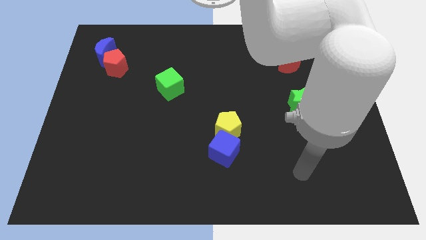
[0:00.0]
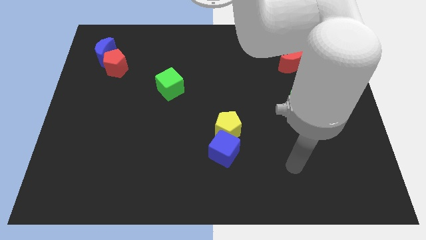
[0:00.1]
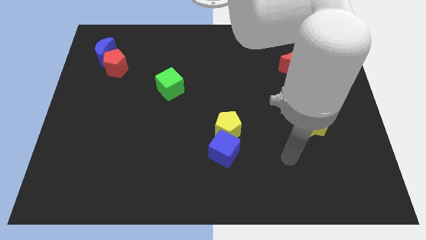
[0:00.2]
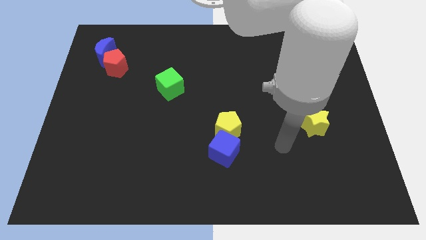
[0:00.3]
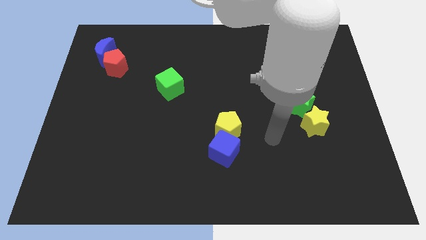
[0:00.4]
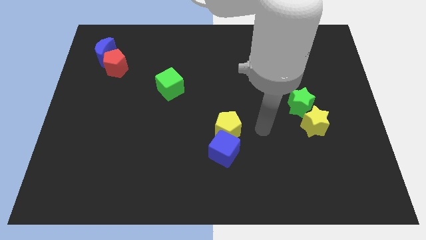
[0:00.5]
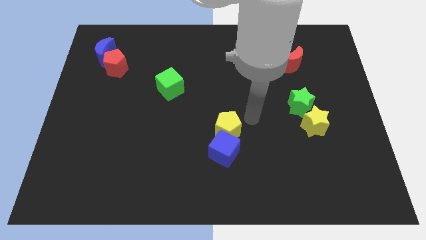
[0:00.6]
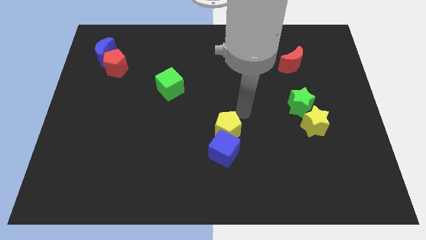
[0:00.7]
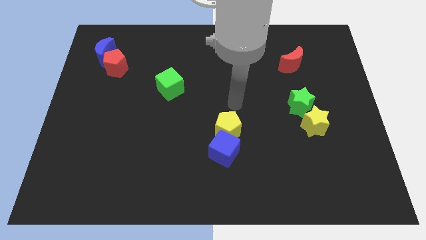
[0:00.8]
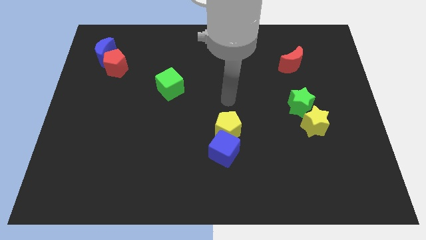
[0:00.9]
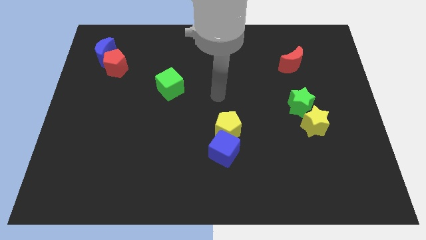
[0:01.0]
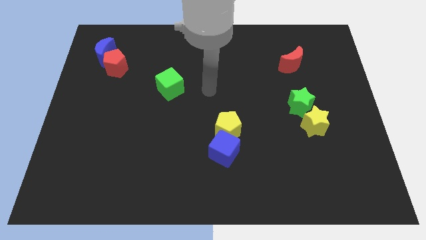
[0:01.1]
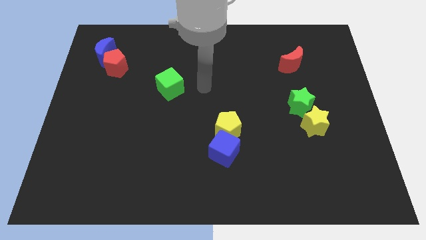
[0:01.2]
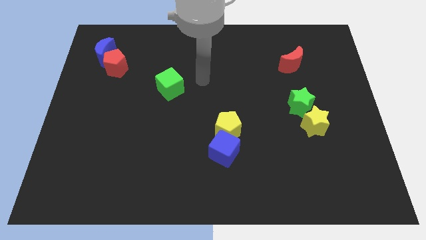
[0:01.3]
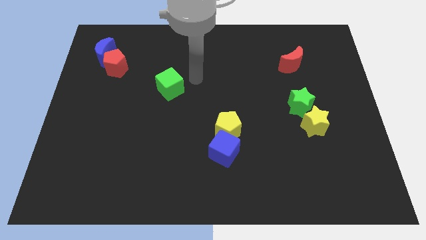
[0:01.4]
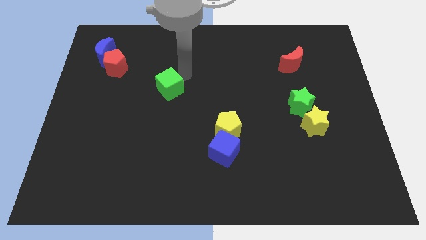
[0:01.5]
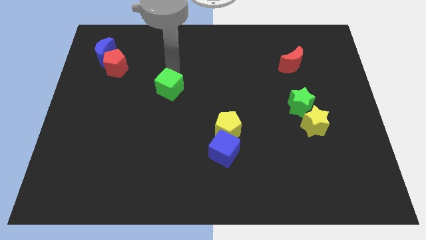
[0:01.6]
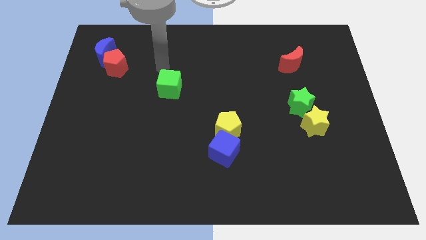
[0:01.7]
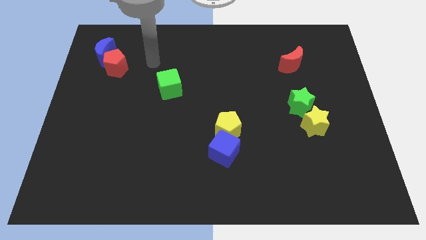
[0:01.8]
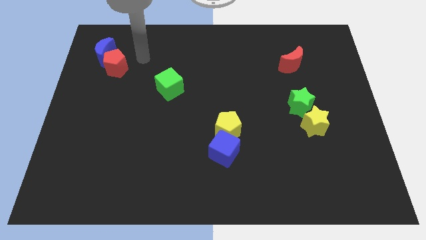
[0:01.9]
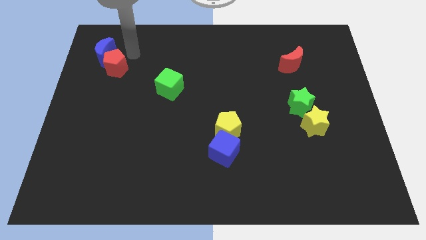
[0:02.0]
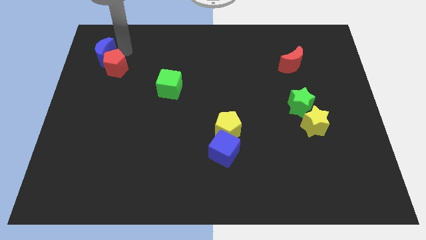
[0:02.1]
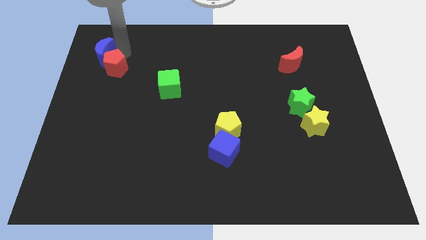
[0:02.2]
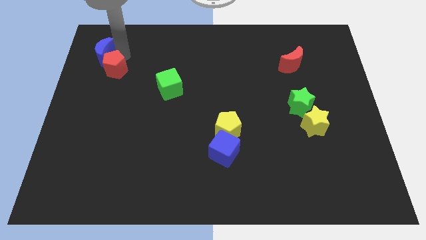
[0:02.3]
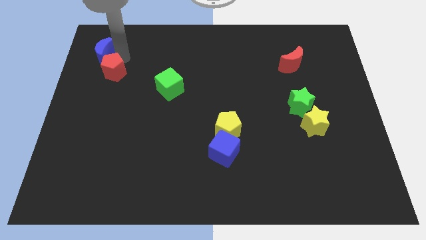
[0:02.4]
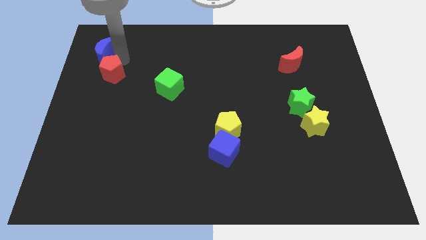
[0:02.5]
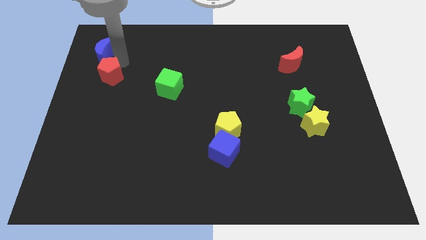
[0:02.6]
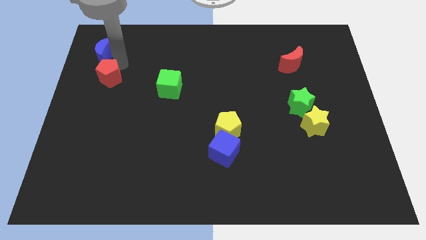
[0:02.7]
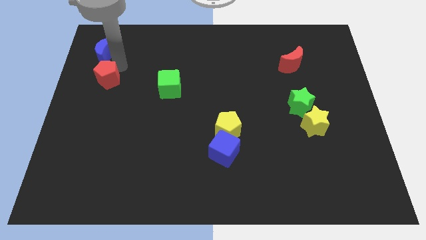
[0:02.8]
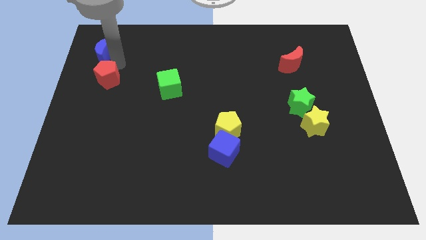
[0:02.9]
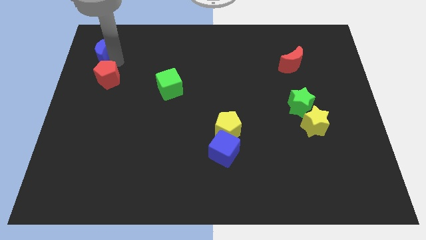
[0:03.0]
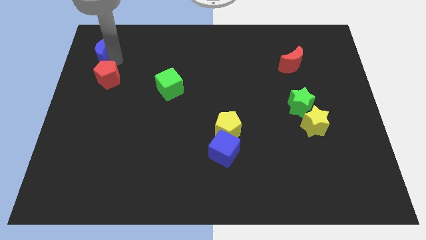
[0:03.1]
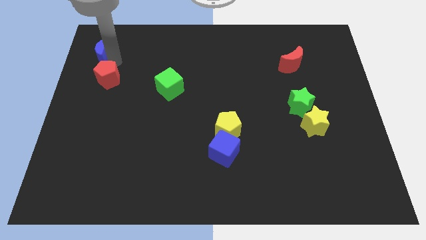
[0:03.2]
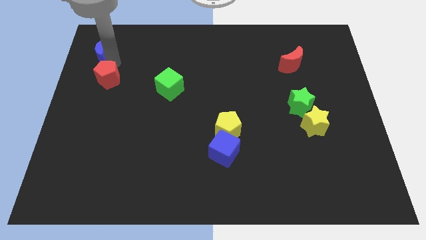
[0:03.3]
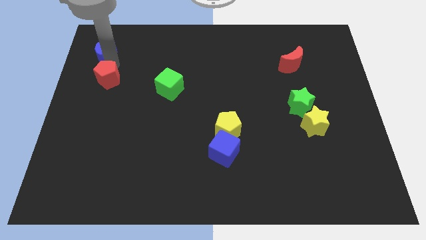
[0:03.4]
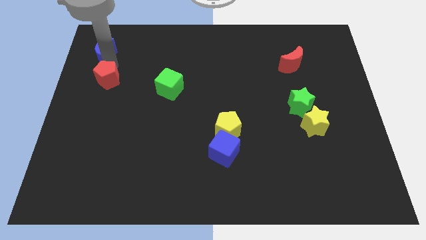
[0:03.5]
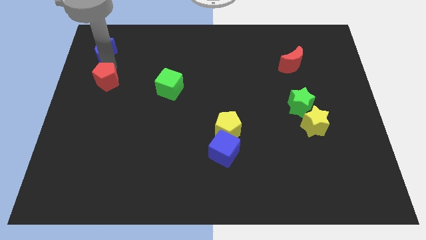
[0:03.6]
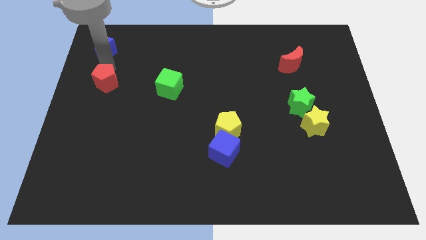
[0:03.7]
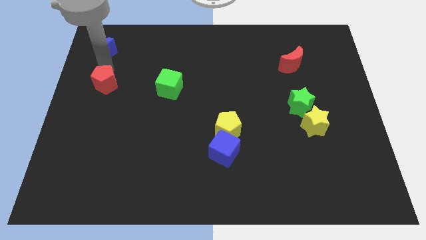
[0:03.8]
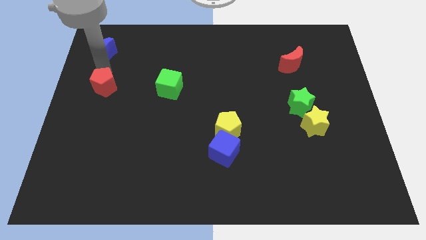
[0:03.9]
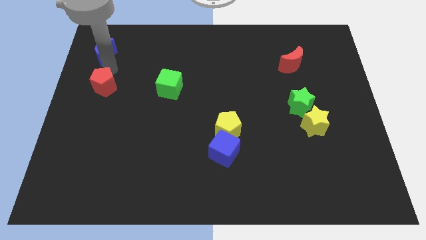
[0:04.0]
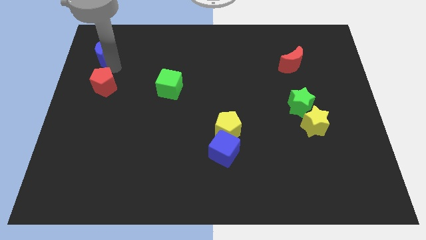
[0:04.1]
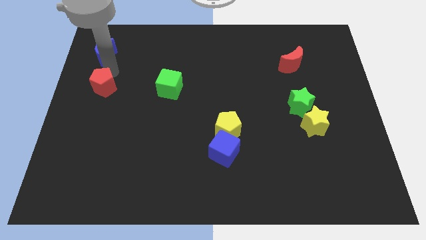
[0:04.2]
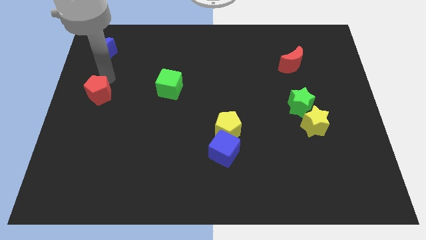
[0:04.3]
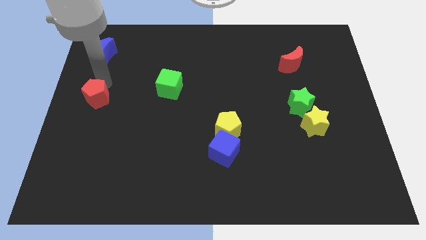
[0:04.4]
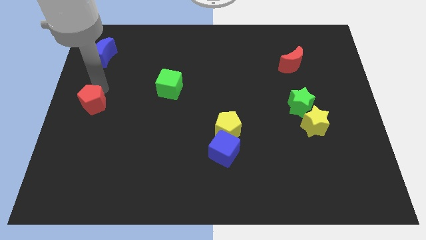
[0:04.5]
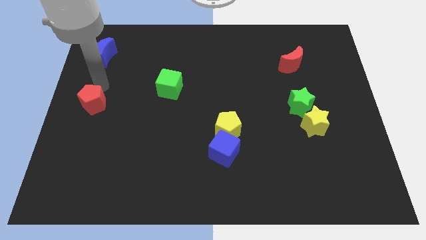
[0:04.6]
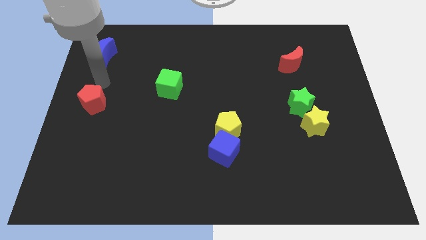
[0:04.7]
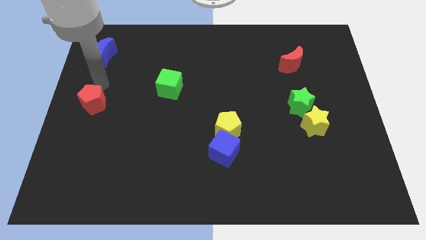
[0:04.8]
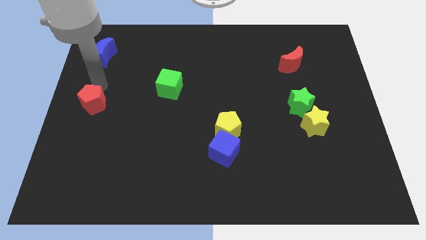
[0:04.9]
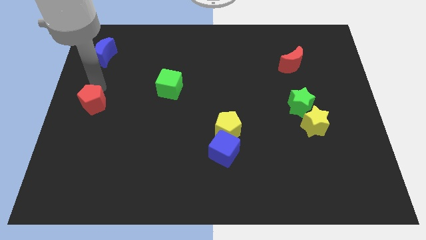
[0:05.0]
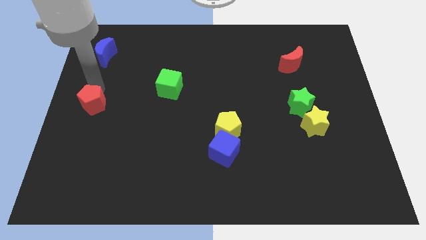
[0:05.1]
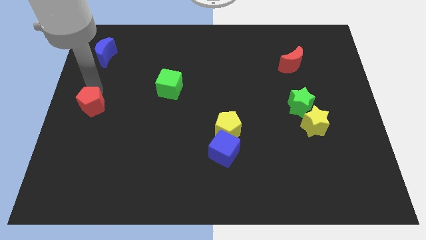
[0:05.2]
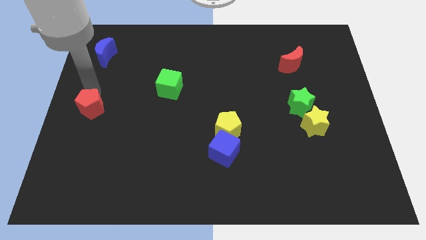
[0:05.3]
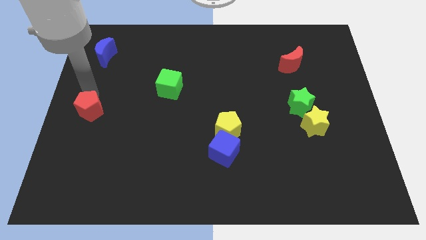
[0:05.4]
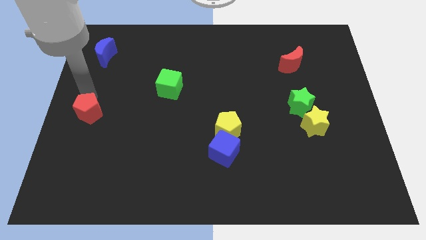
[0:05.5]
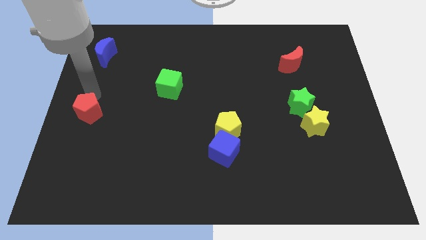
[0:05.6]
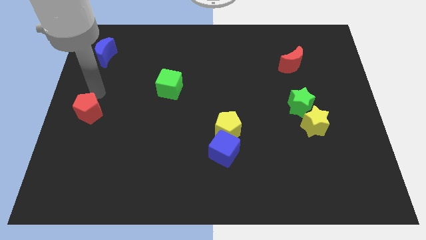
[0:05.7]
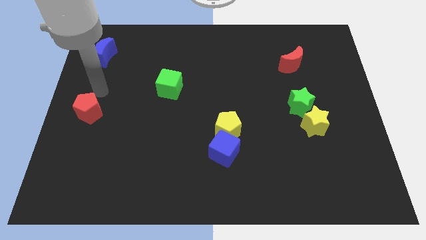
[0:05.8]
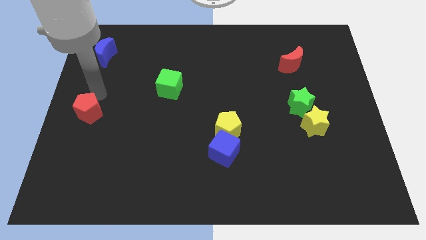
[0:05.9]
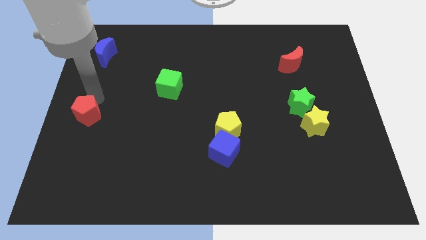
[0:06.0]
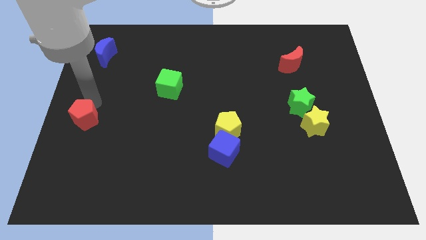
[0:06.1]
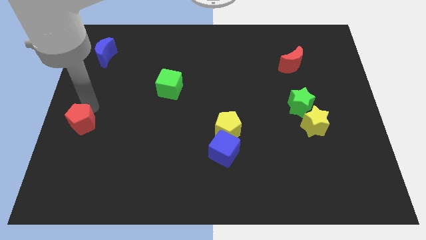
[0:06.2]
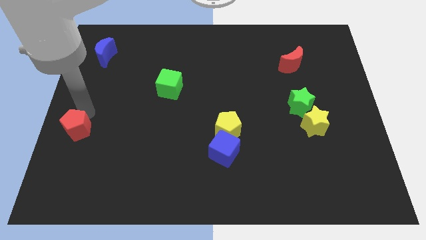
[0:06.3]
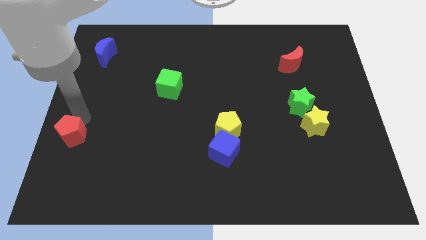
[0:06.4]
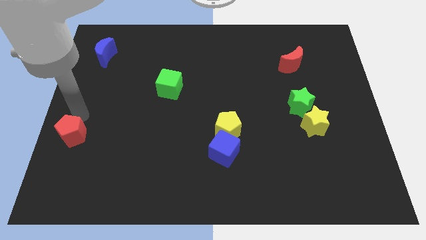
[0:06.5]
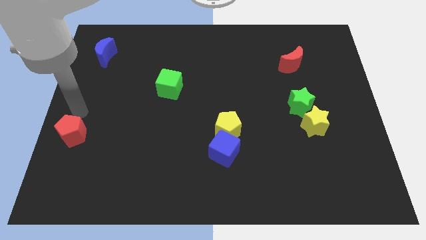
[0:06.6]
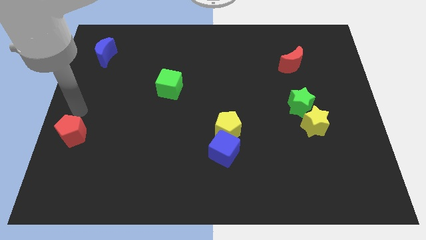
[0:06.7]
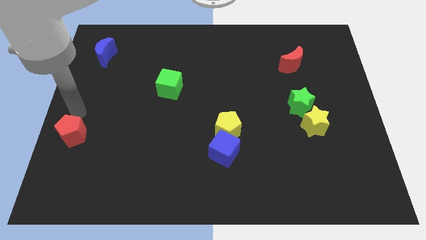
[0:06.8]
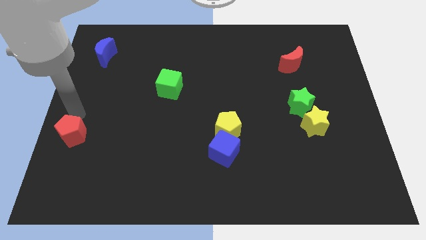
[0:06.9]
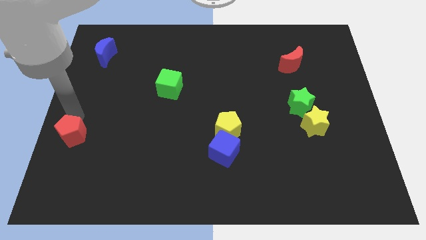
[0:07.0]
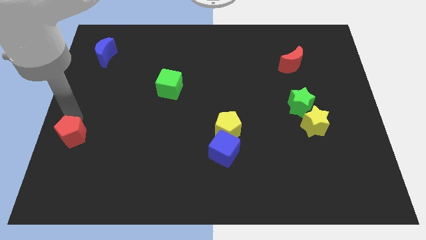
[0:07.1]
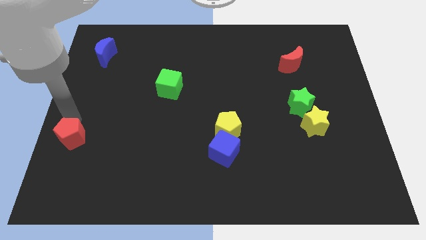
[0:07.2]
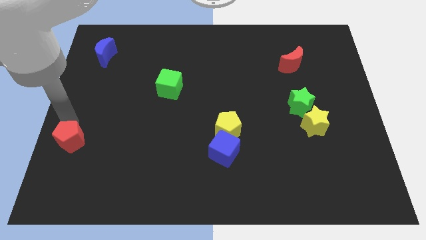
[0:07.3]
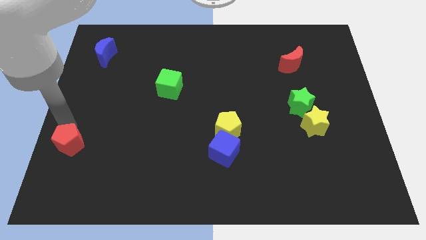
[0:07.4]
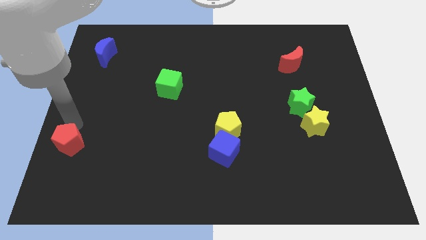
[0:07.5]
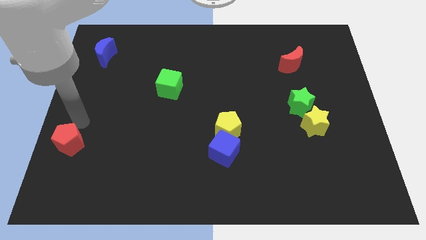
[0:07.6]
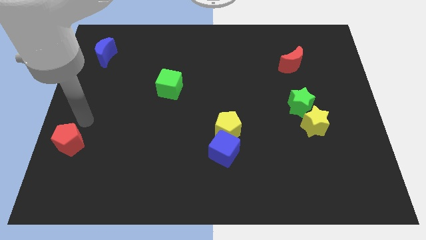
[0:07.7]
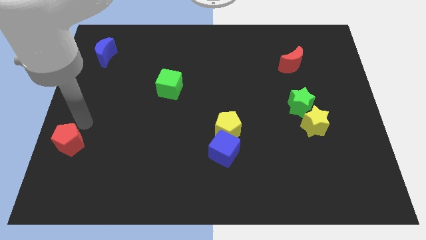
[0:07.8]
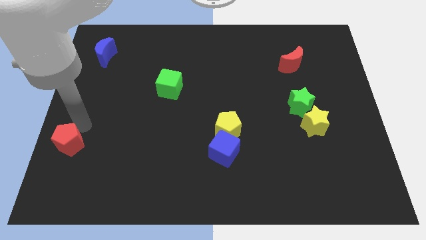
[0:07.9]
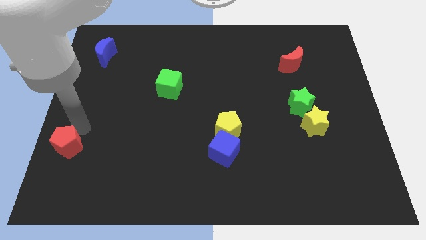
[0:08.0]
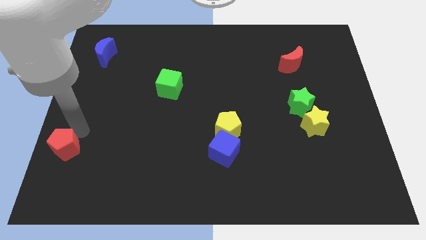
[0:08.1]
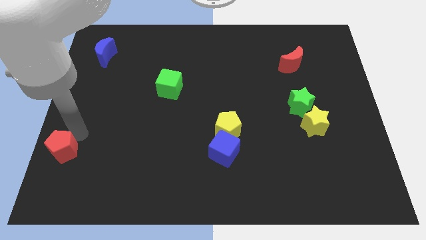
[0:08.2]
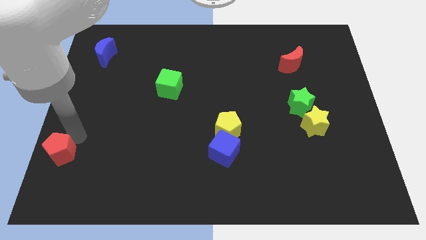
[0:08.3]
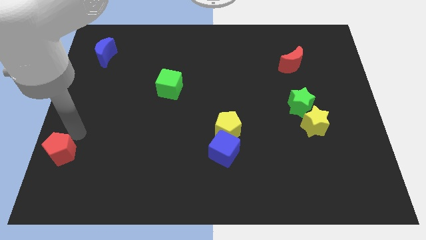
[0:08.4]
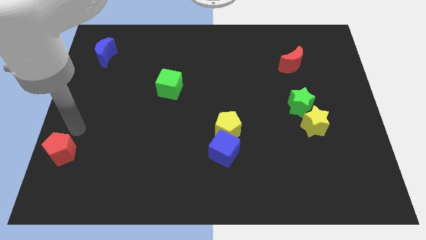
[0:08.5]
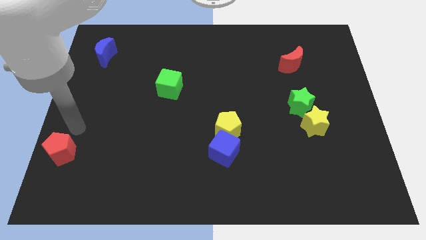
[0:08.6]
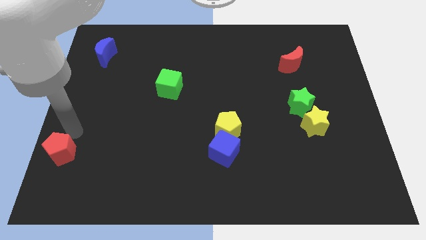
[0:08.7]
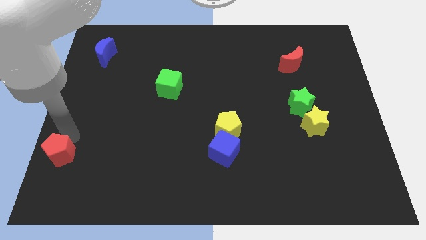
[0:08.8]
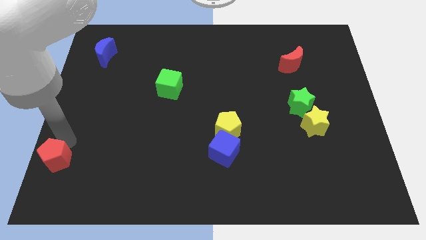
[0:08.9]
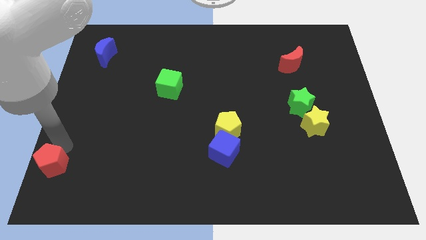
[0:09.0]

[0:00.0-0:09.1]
slide the red pentagon to the lower left corner
